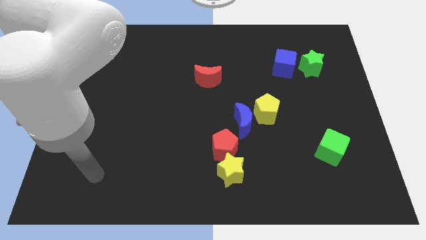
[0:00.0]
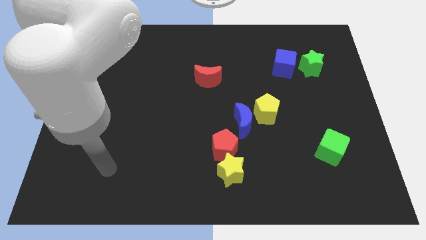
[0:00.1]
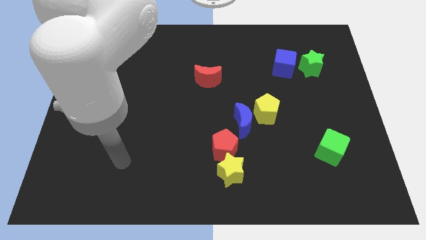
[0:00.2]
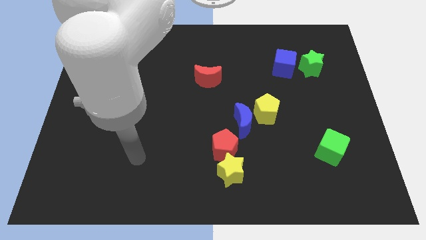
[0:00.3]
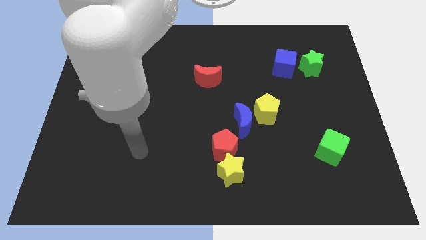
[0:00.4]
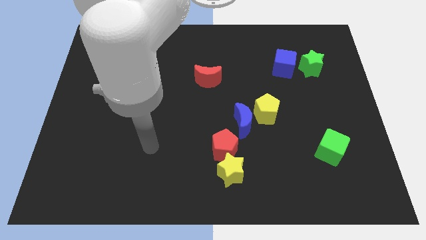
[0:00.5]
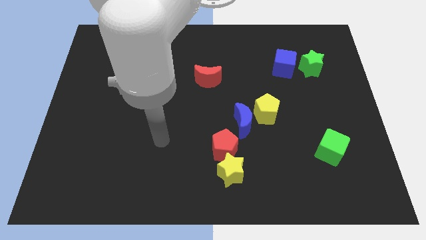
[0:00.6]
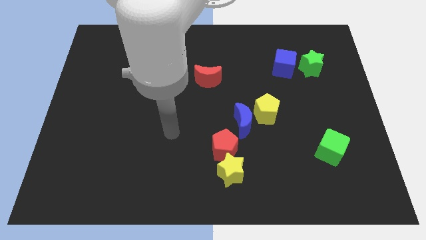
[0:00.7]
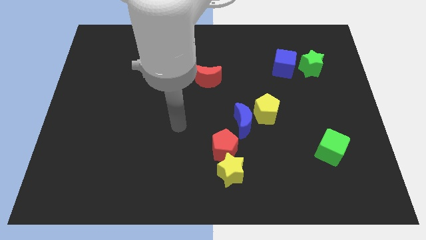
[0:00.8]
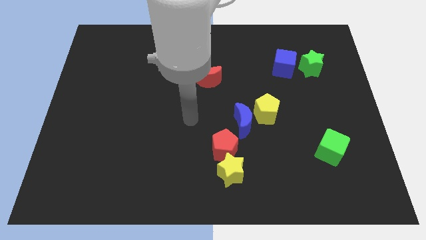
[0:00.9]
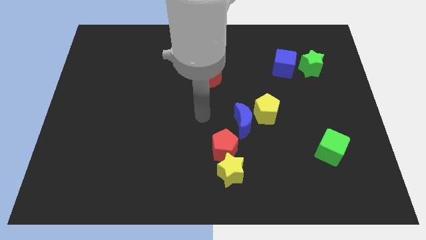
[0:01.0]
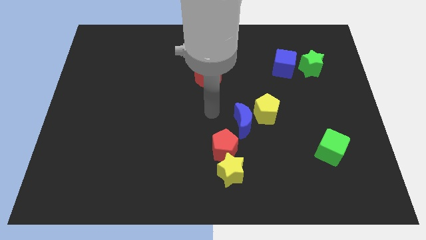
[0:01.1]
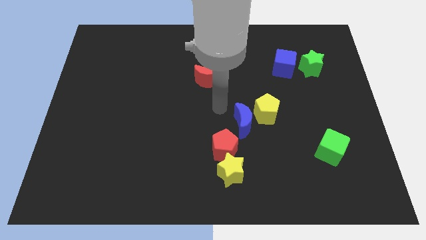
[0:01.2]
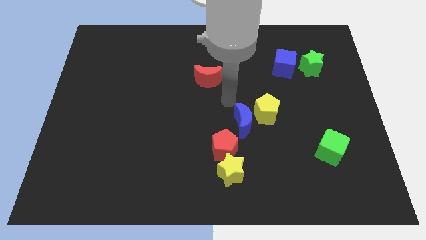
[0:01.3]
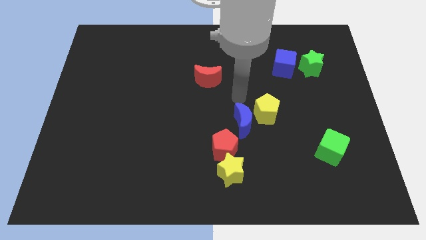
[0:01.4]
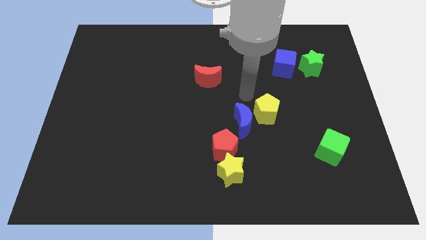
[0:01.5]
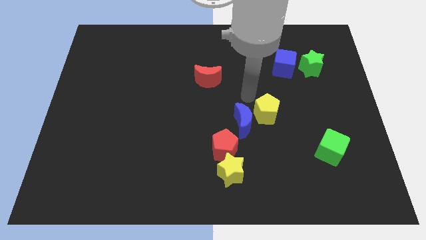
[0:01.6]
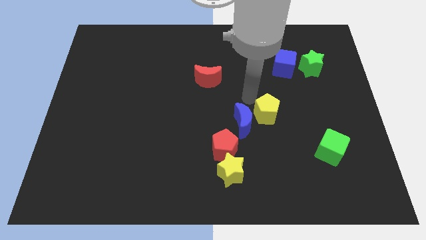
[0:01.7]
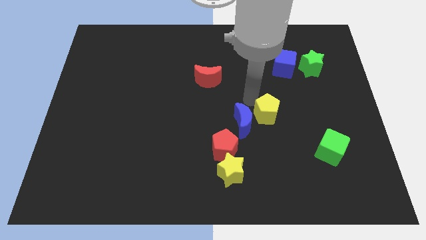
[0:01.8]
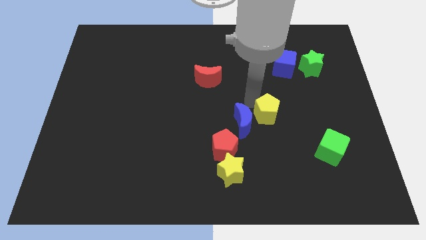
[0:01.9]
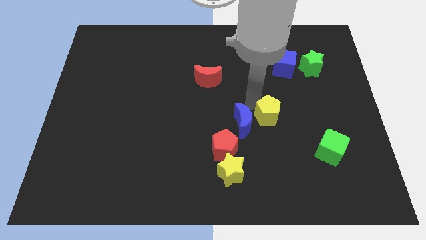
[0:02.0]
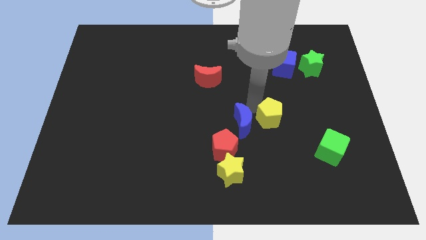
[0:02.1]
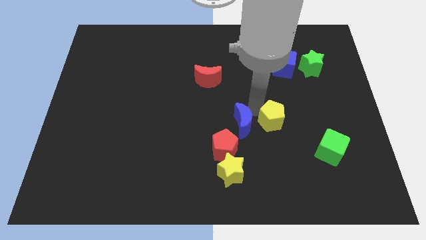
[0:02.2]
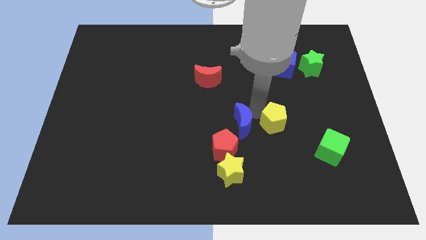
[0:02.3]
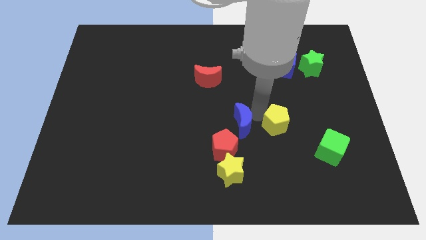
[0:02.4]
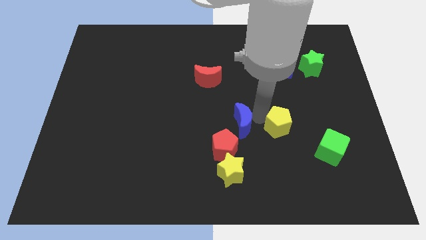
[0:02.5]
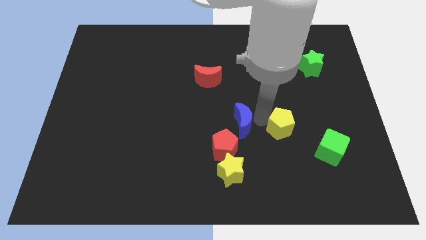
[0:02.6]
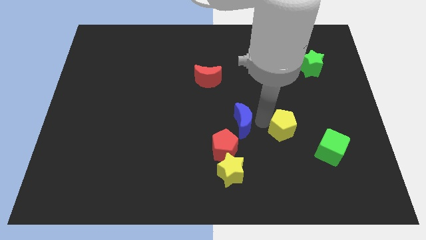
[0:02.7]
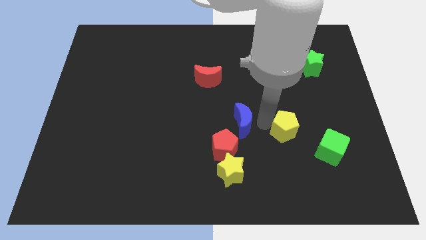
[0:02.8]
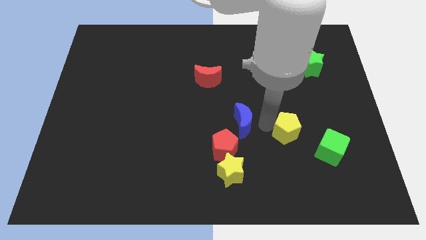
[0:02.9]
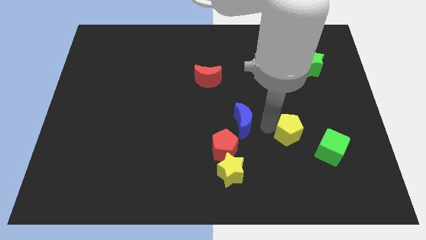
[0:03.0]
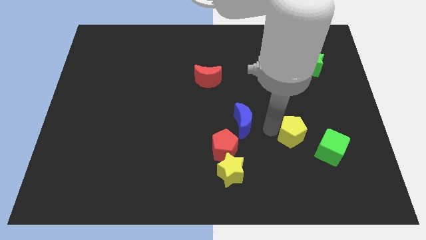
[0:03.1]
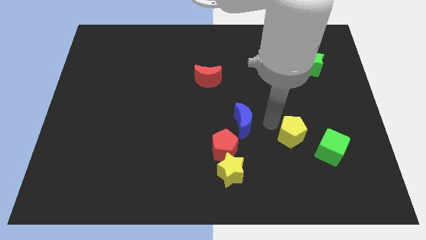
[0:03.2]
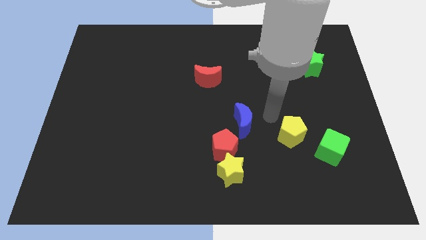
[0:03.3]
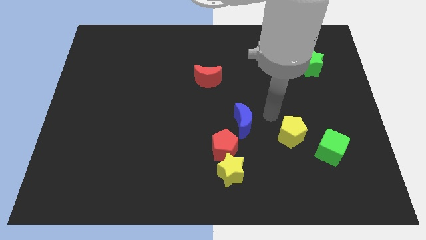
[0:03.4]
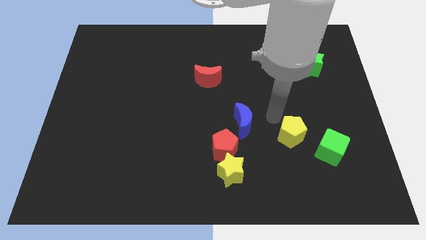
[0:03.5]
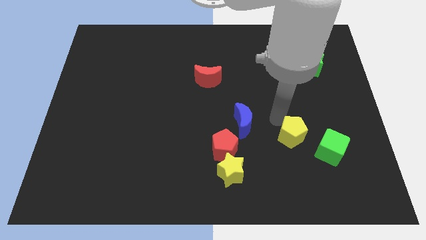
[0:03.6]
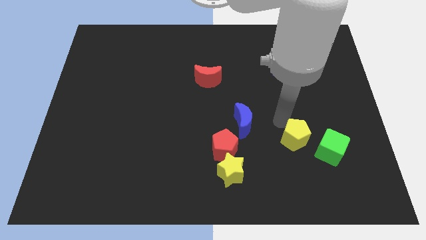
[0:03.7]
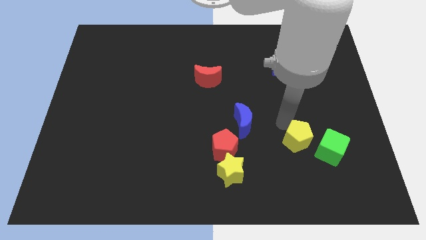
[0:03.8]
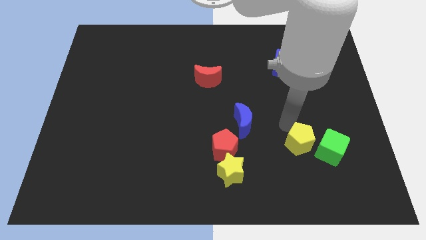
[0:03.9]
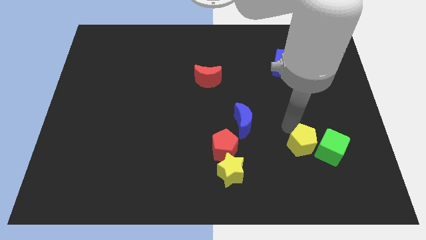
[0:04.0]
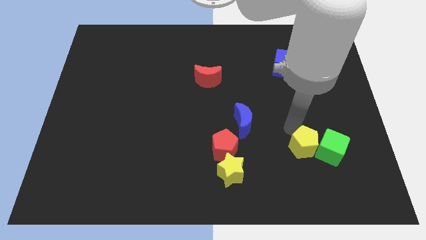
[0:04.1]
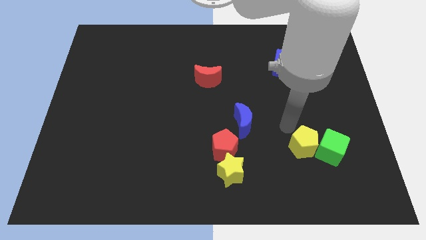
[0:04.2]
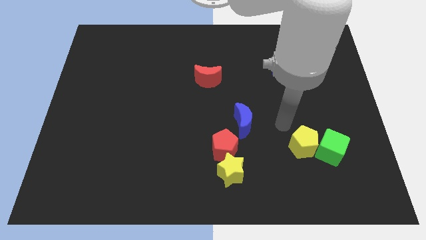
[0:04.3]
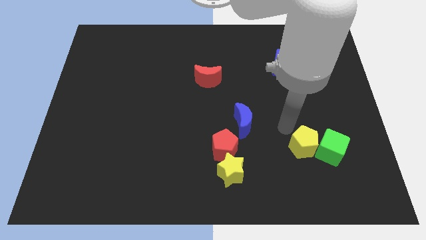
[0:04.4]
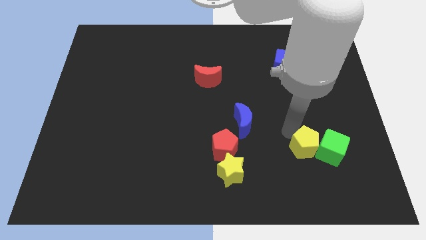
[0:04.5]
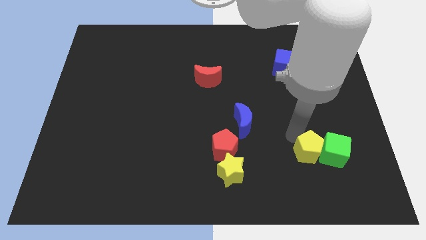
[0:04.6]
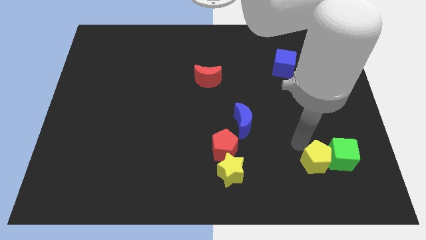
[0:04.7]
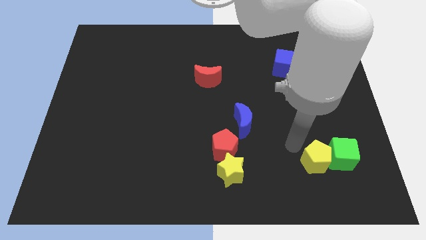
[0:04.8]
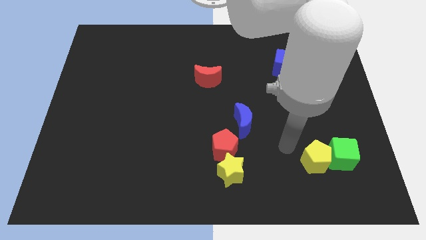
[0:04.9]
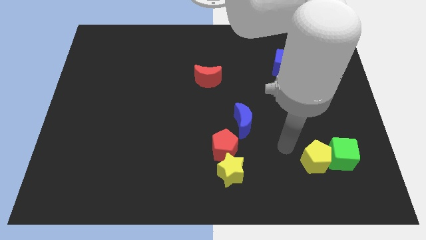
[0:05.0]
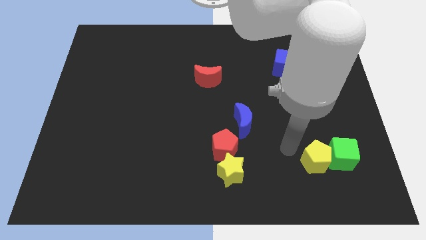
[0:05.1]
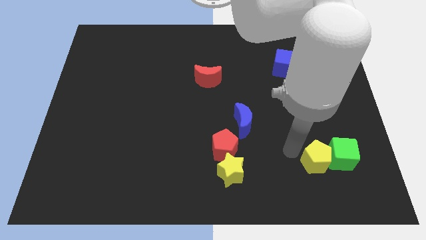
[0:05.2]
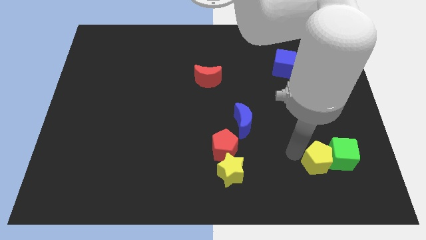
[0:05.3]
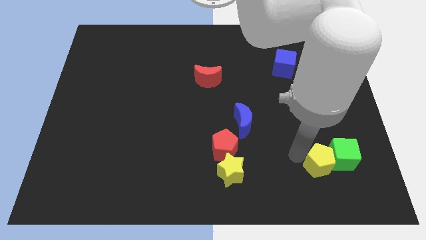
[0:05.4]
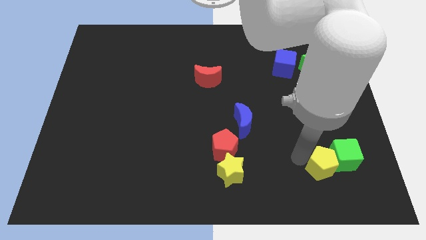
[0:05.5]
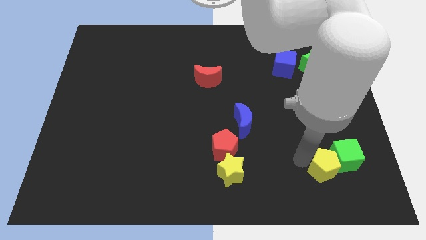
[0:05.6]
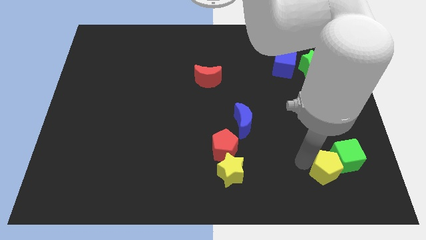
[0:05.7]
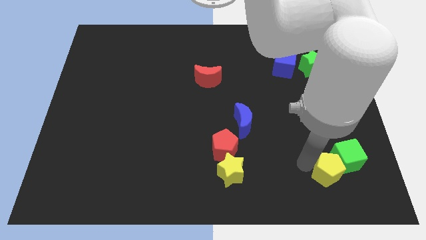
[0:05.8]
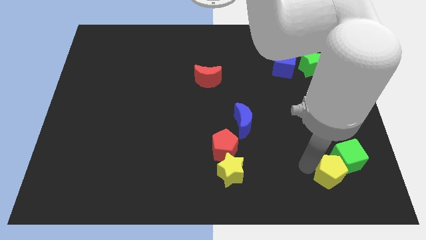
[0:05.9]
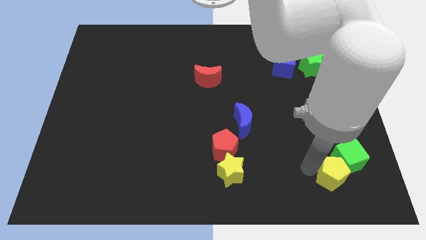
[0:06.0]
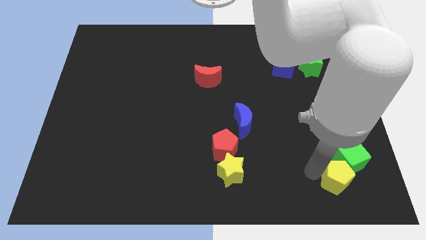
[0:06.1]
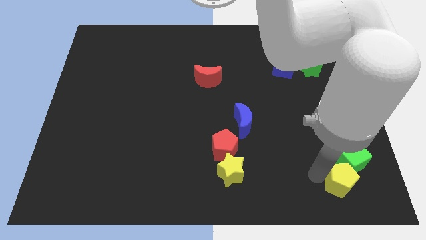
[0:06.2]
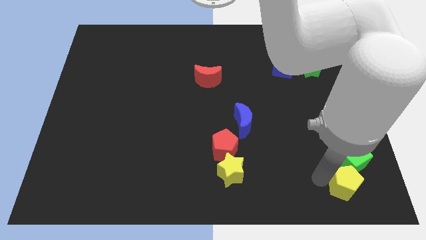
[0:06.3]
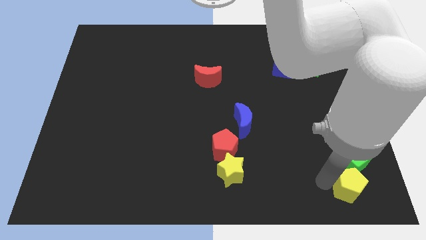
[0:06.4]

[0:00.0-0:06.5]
move the yellow pentagon to the lower right corner
